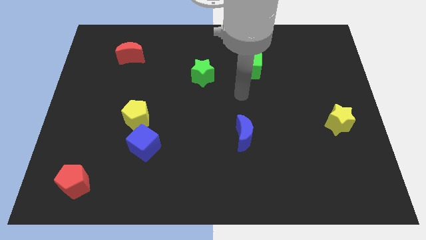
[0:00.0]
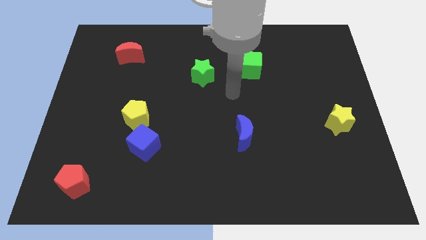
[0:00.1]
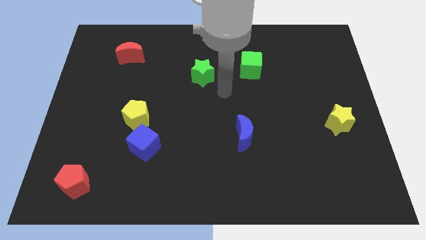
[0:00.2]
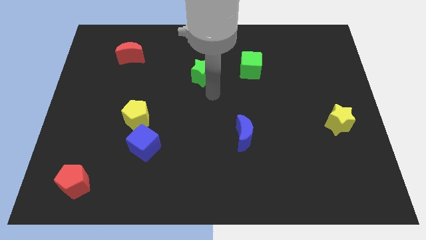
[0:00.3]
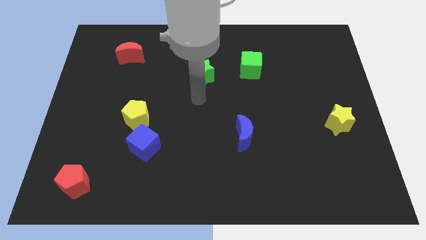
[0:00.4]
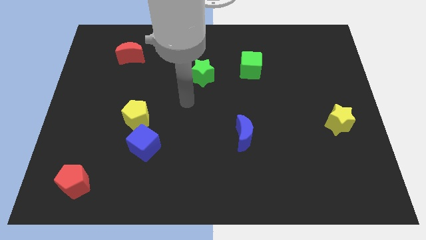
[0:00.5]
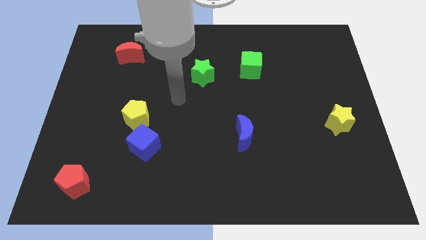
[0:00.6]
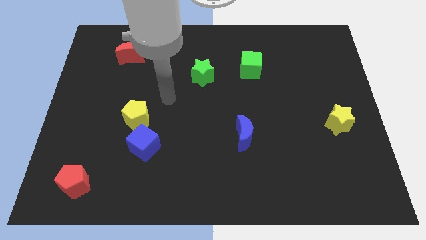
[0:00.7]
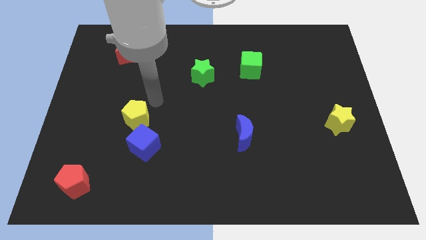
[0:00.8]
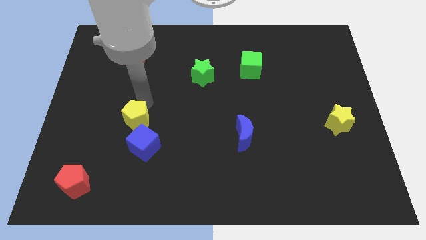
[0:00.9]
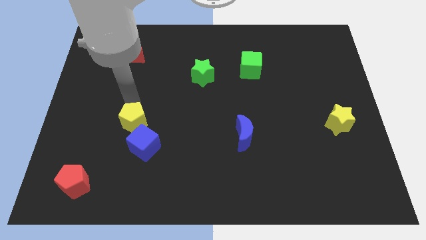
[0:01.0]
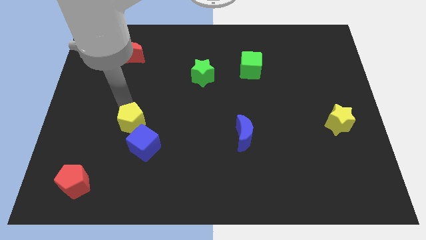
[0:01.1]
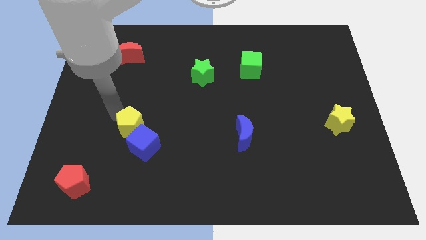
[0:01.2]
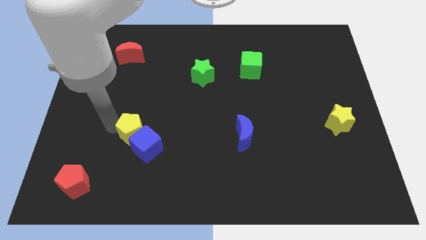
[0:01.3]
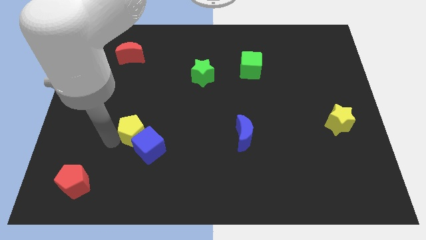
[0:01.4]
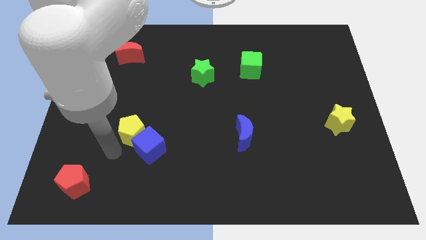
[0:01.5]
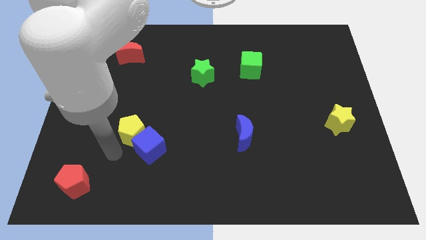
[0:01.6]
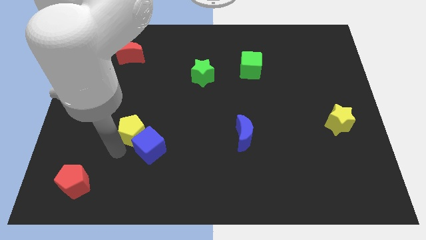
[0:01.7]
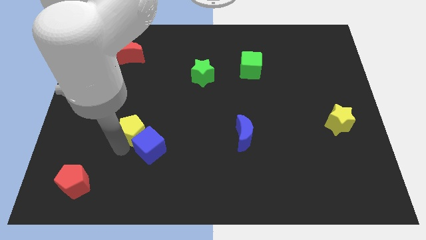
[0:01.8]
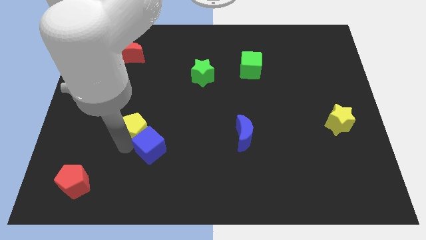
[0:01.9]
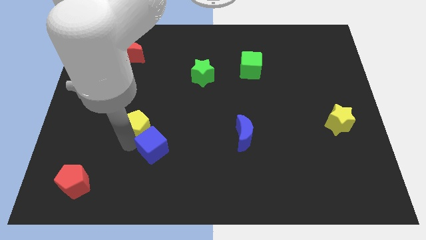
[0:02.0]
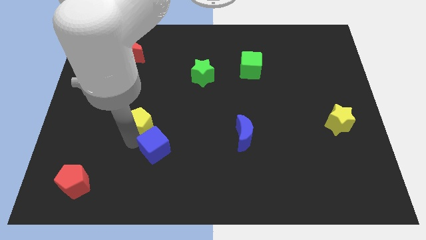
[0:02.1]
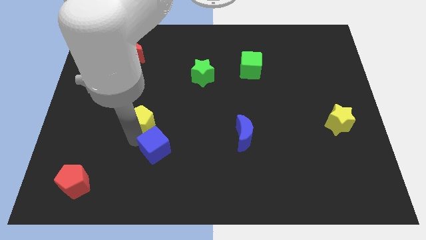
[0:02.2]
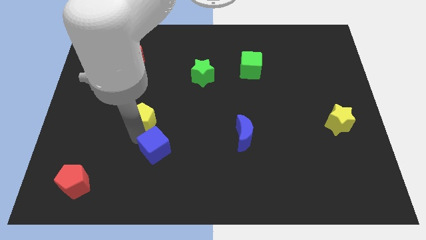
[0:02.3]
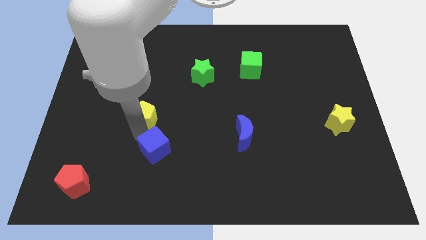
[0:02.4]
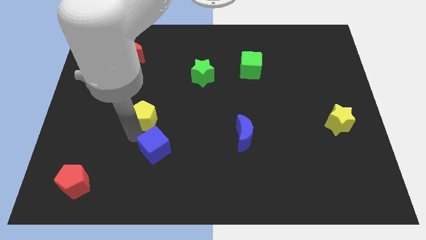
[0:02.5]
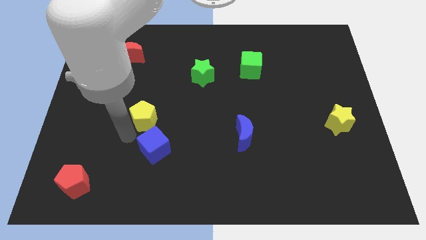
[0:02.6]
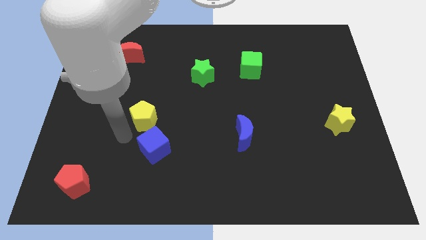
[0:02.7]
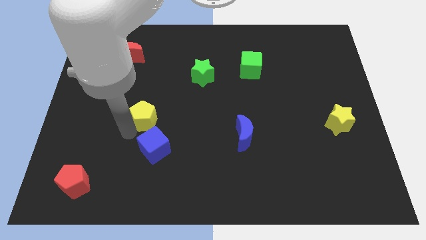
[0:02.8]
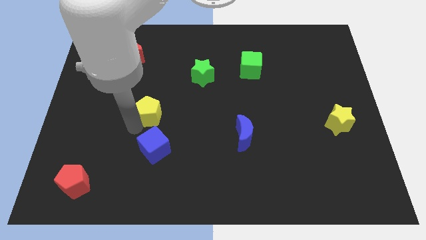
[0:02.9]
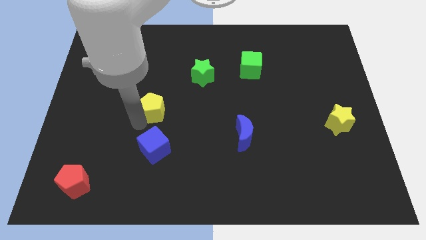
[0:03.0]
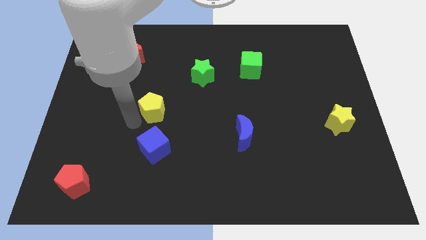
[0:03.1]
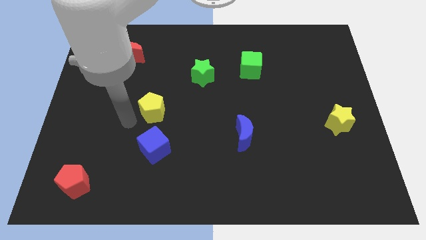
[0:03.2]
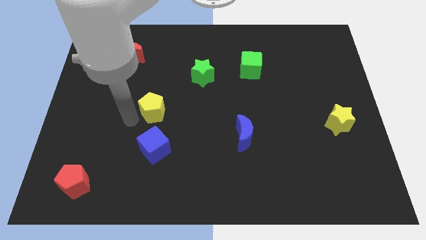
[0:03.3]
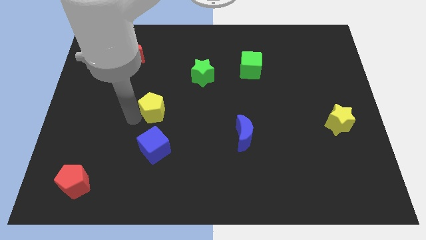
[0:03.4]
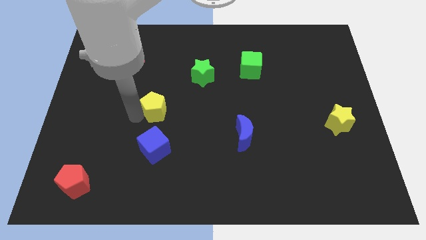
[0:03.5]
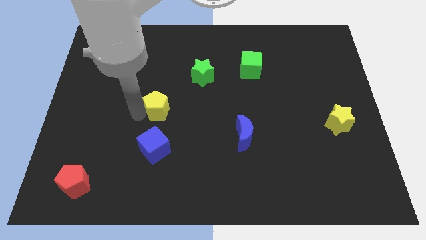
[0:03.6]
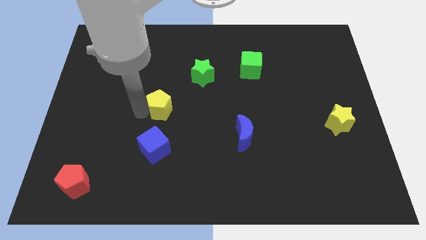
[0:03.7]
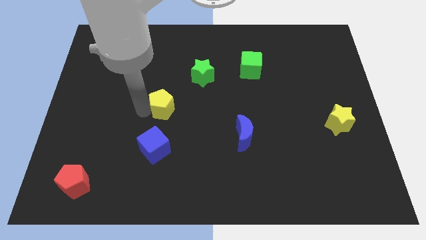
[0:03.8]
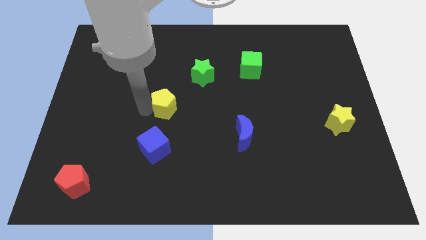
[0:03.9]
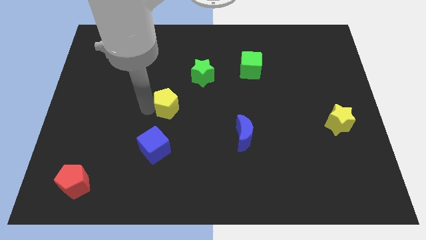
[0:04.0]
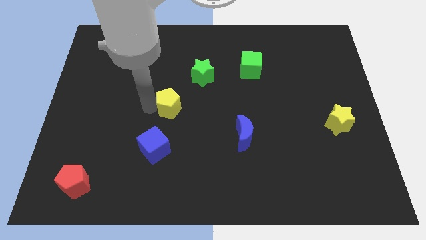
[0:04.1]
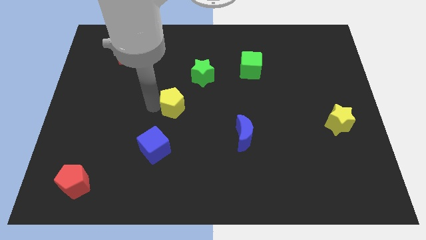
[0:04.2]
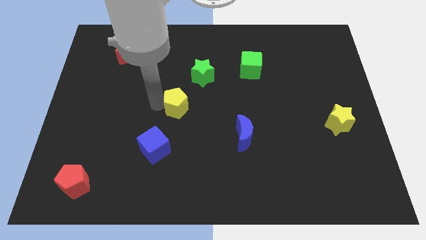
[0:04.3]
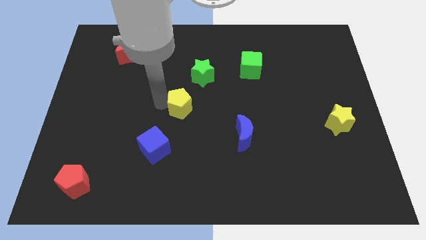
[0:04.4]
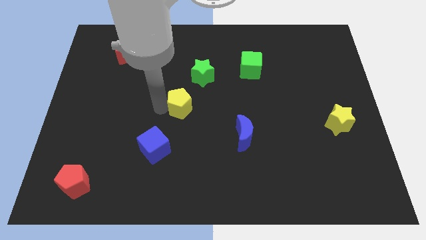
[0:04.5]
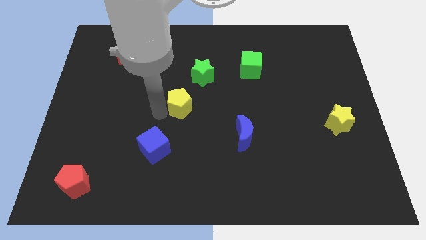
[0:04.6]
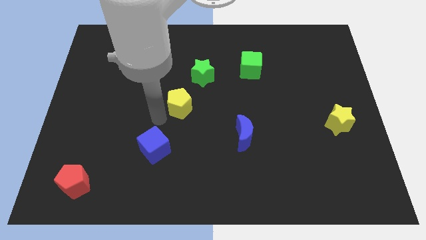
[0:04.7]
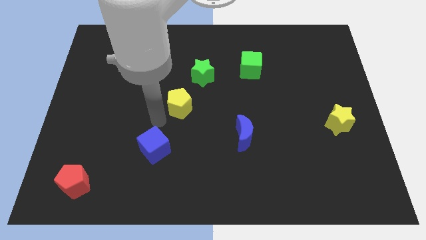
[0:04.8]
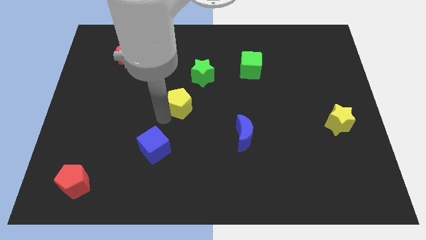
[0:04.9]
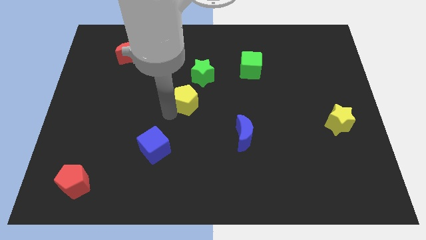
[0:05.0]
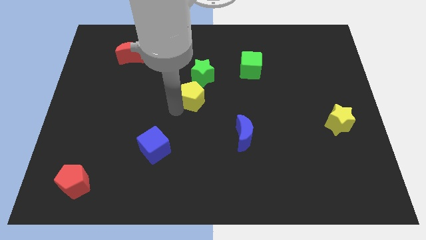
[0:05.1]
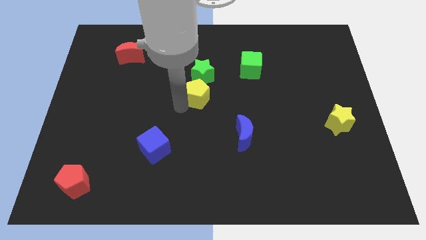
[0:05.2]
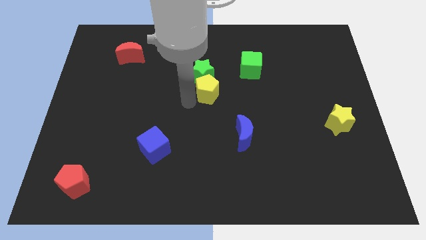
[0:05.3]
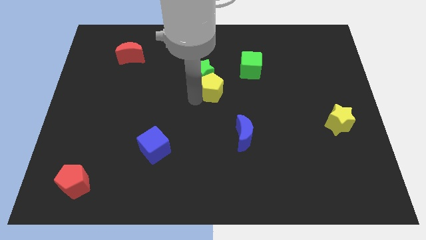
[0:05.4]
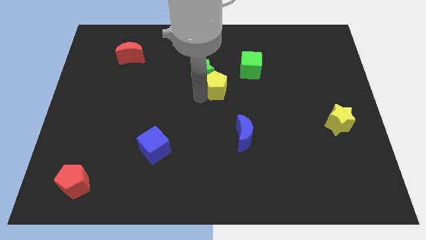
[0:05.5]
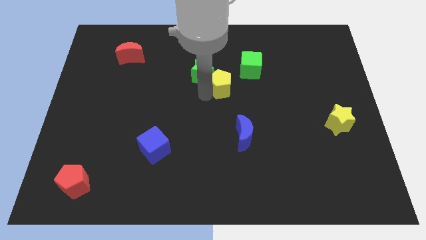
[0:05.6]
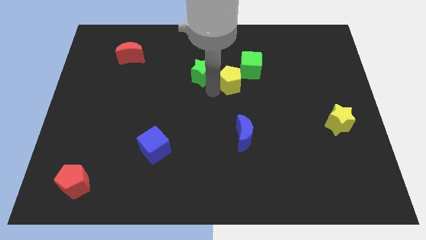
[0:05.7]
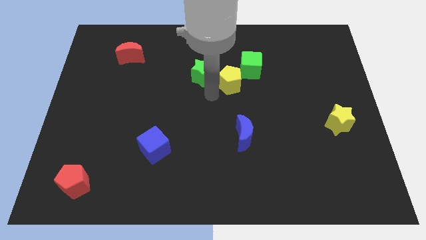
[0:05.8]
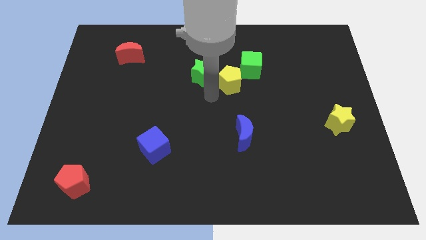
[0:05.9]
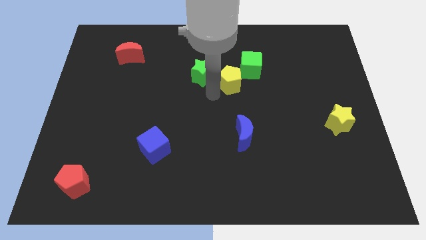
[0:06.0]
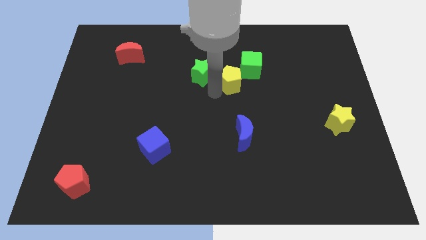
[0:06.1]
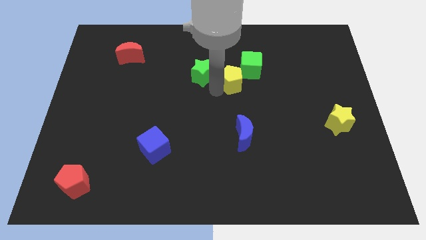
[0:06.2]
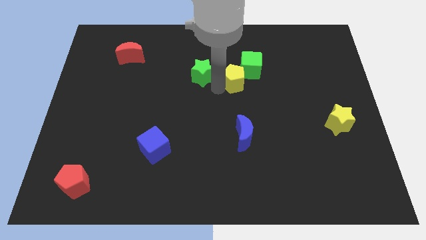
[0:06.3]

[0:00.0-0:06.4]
put the yellow pentagon next to the green cube

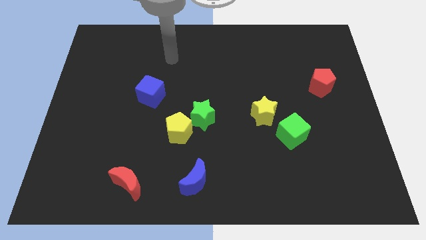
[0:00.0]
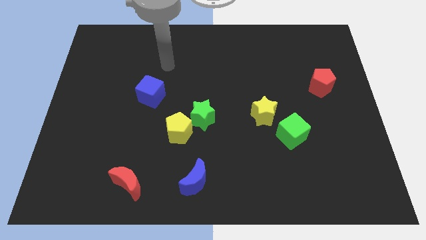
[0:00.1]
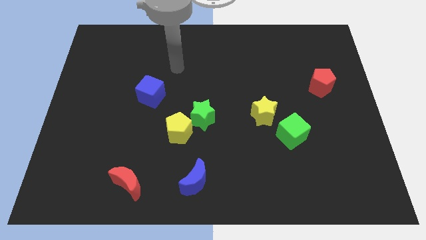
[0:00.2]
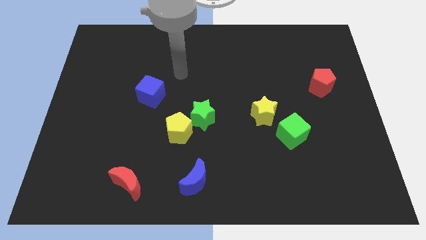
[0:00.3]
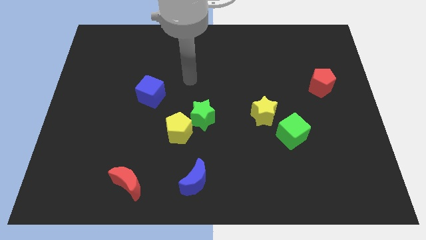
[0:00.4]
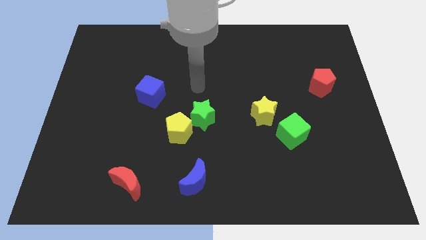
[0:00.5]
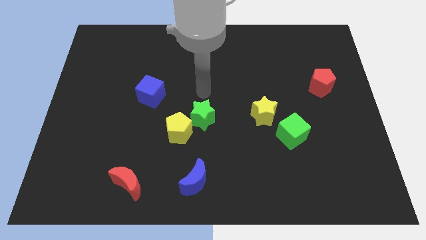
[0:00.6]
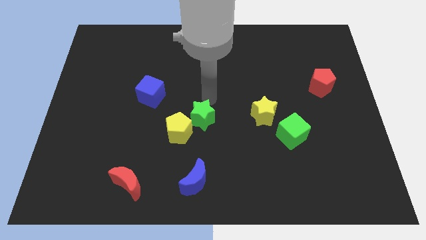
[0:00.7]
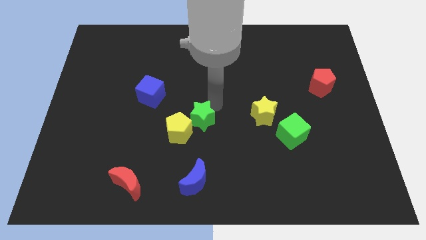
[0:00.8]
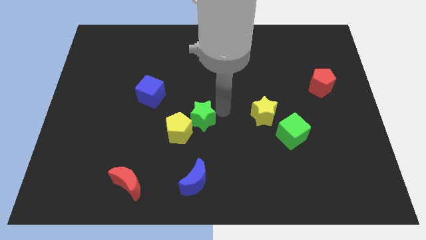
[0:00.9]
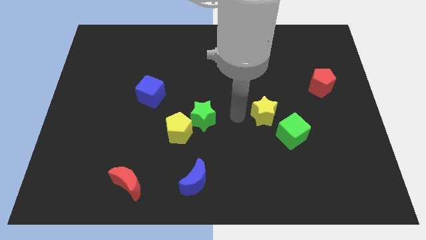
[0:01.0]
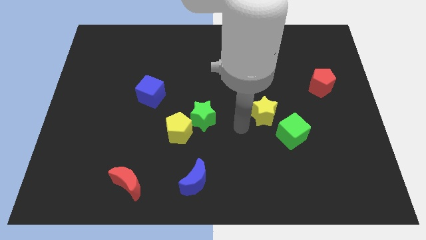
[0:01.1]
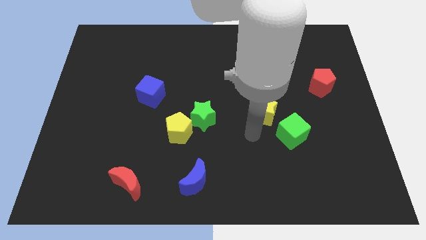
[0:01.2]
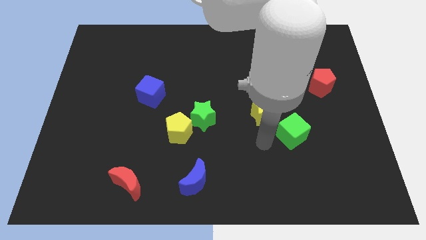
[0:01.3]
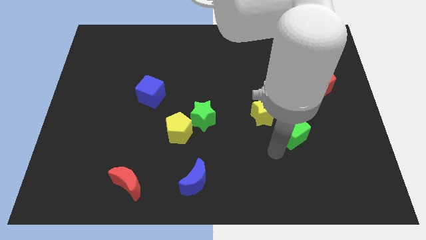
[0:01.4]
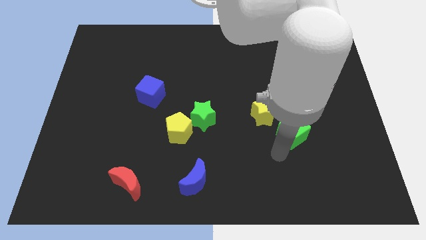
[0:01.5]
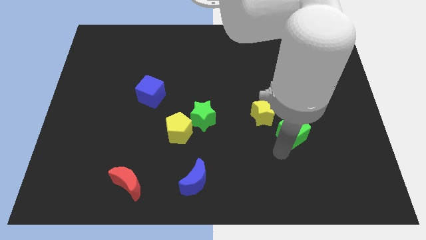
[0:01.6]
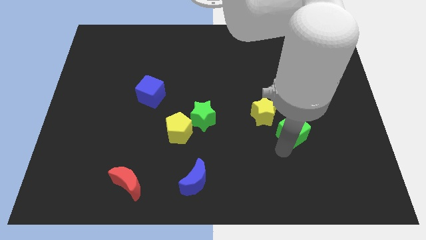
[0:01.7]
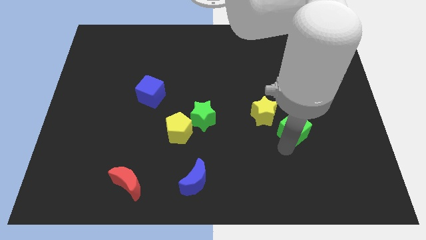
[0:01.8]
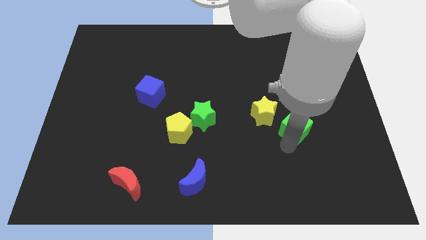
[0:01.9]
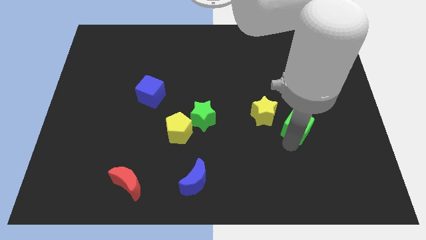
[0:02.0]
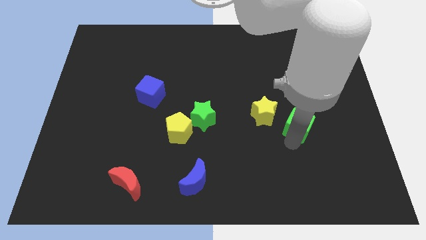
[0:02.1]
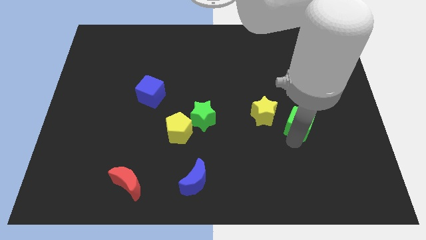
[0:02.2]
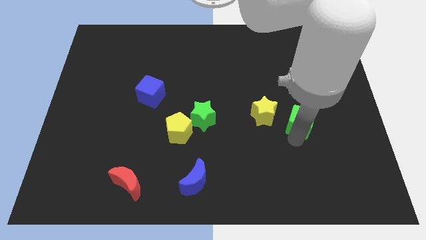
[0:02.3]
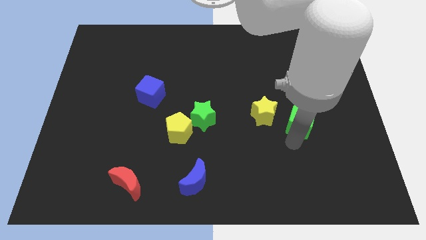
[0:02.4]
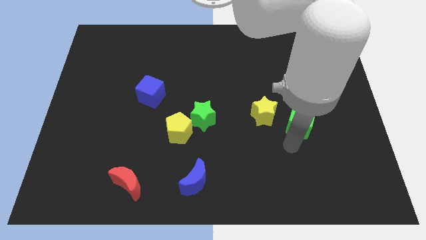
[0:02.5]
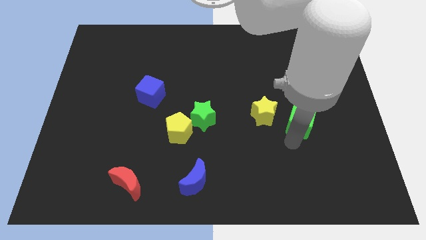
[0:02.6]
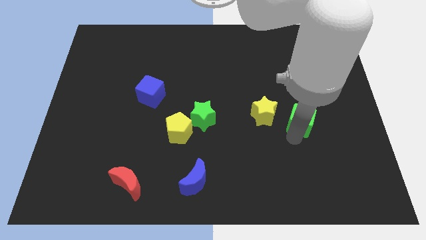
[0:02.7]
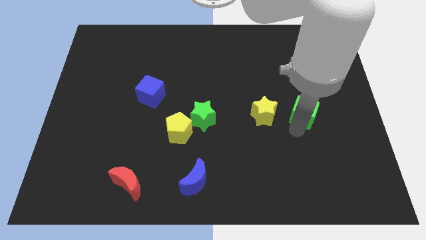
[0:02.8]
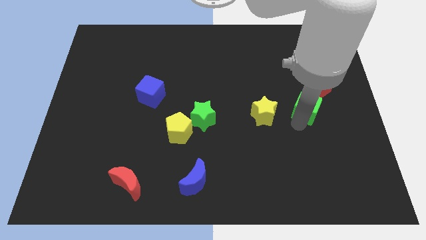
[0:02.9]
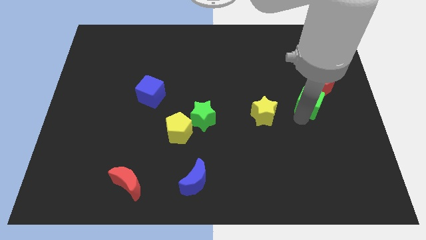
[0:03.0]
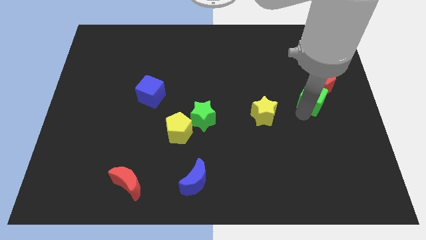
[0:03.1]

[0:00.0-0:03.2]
move the green cube close to the red pentagon
